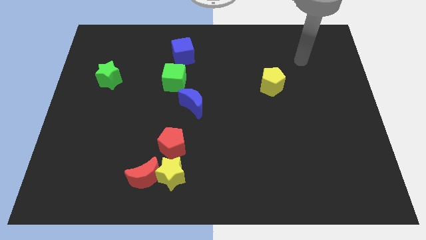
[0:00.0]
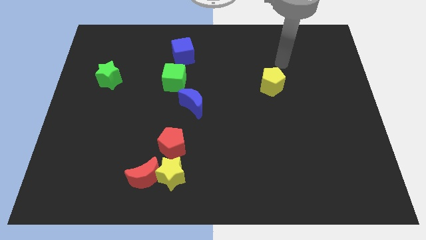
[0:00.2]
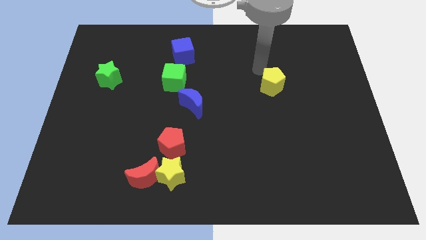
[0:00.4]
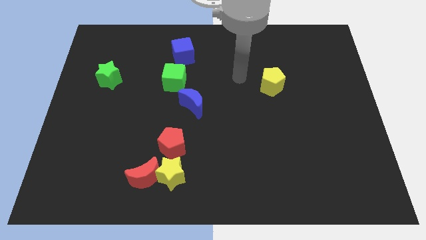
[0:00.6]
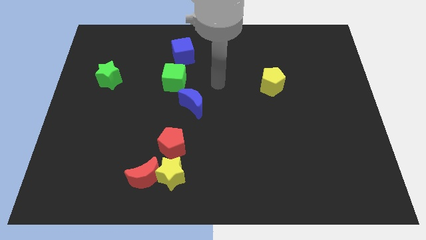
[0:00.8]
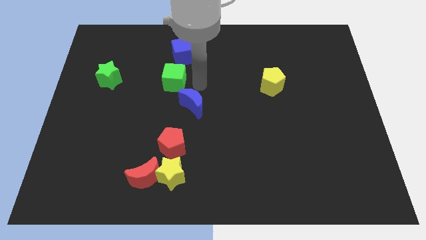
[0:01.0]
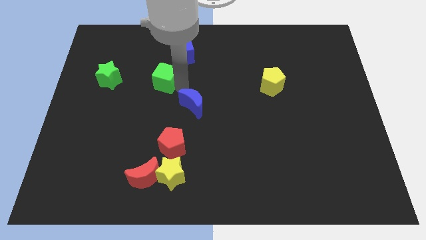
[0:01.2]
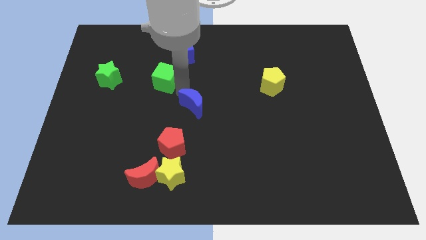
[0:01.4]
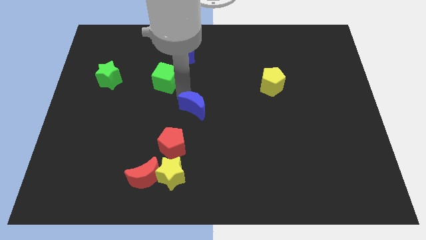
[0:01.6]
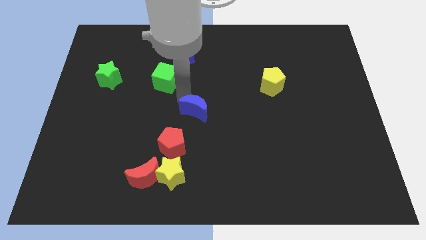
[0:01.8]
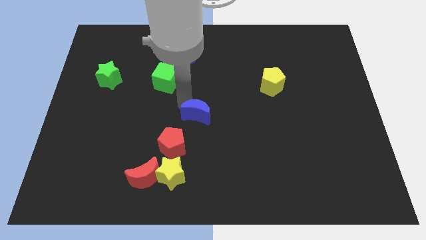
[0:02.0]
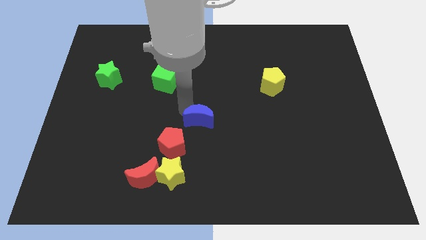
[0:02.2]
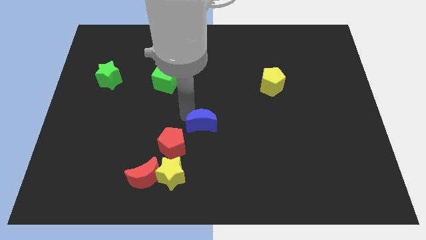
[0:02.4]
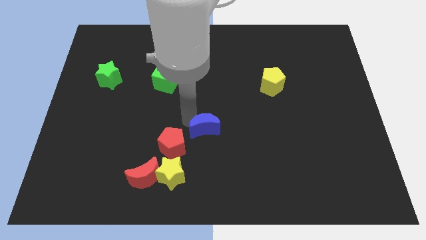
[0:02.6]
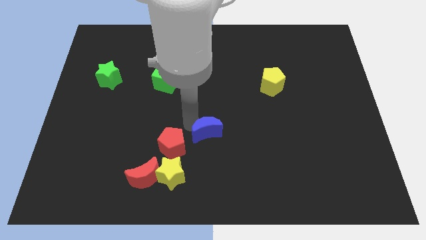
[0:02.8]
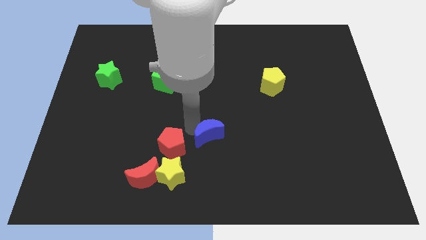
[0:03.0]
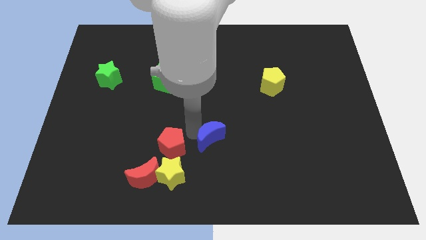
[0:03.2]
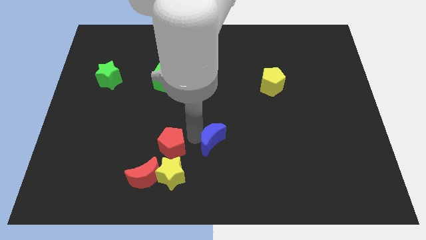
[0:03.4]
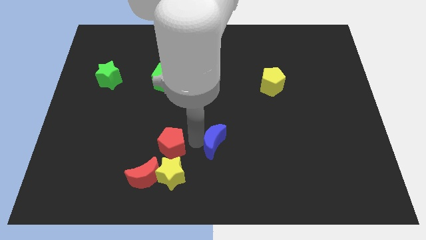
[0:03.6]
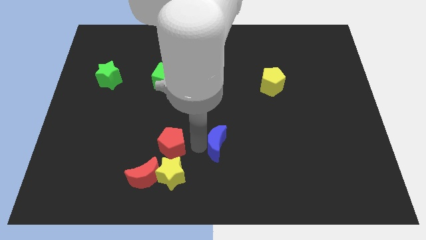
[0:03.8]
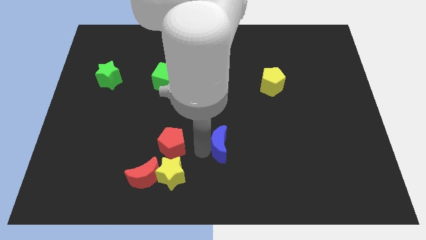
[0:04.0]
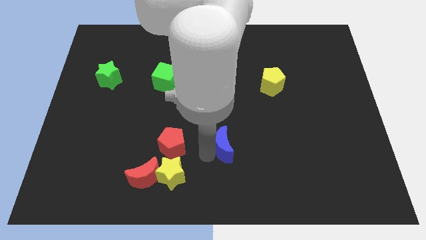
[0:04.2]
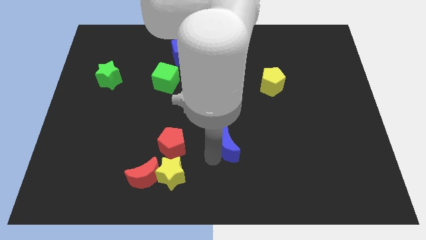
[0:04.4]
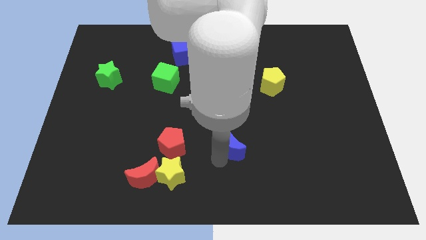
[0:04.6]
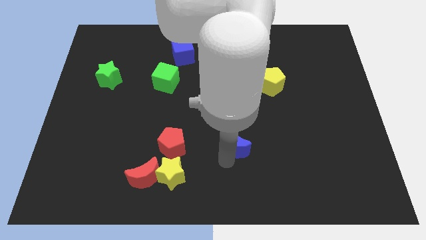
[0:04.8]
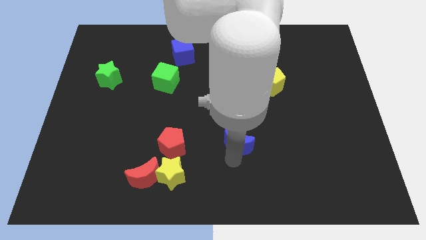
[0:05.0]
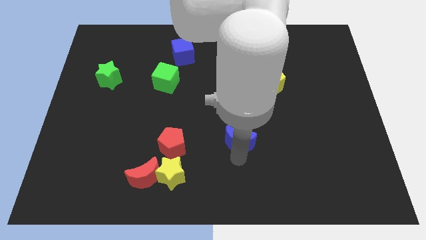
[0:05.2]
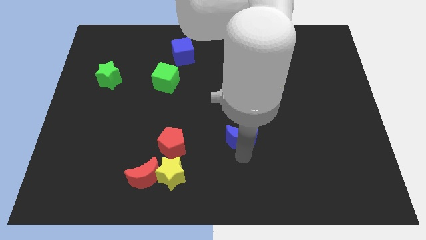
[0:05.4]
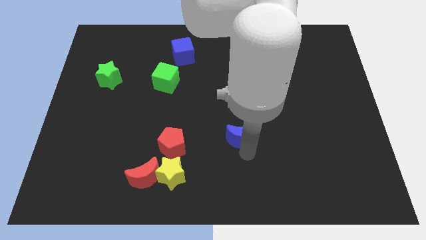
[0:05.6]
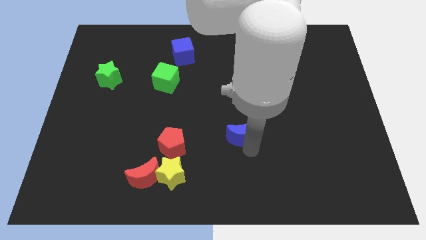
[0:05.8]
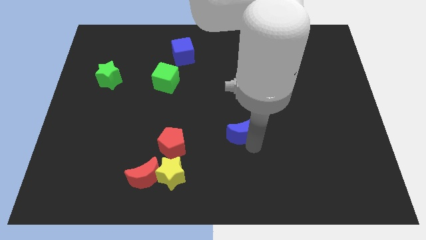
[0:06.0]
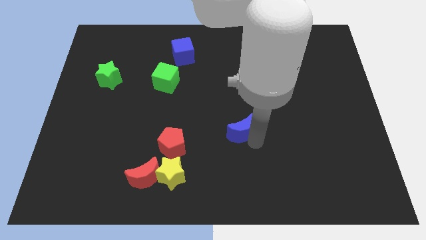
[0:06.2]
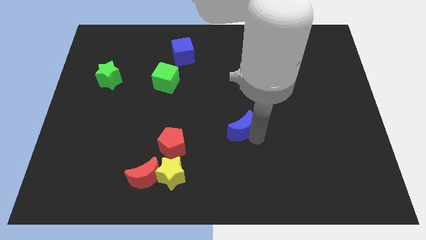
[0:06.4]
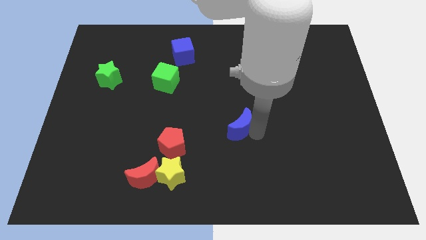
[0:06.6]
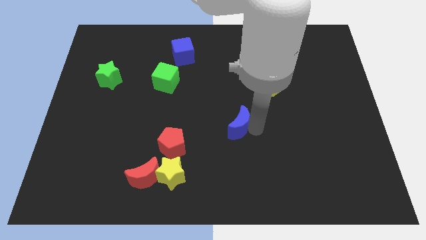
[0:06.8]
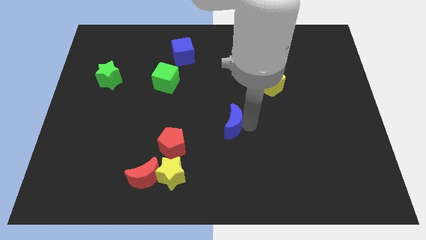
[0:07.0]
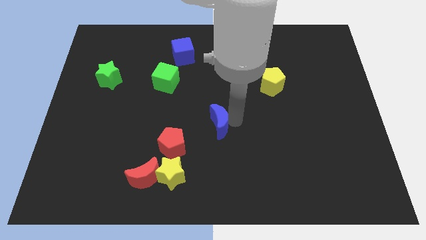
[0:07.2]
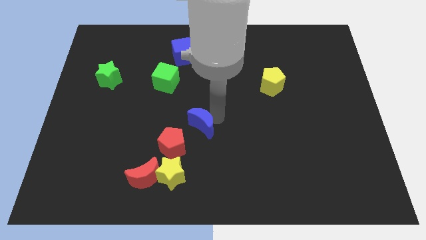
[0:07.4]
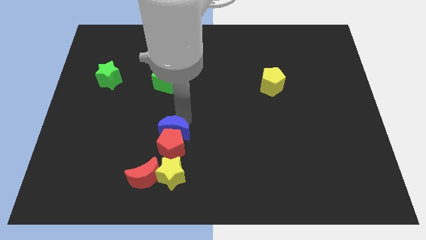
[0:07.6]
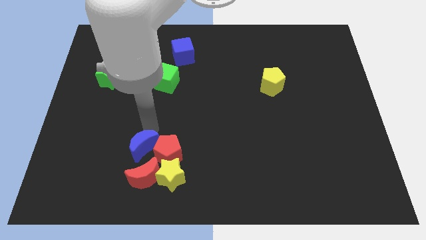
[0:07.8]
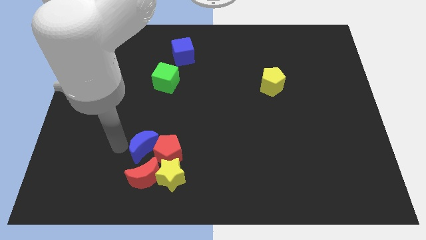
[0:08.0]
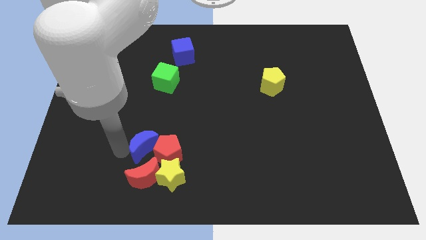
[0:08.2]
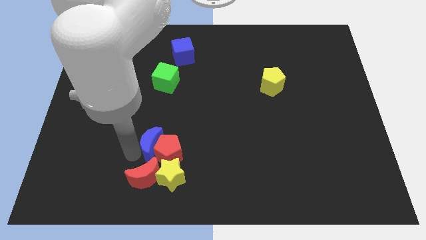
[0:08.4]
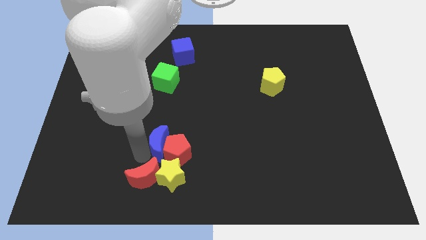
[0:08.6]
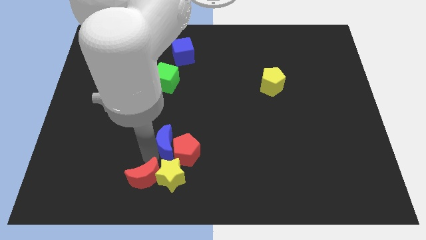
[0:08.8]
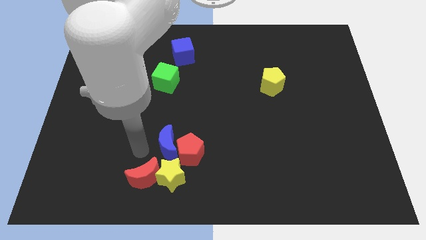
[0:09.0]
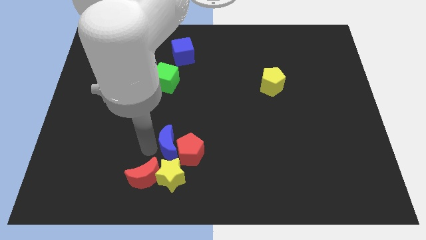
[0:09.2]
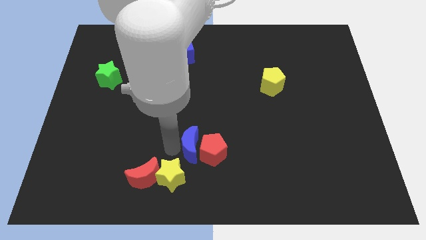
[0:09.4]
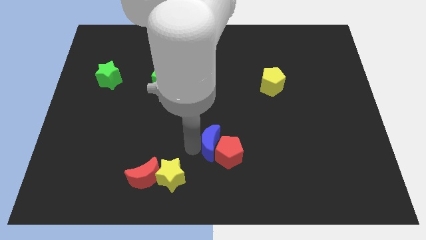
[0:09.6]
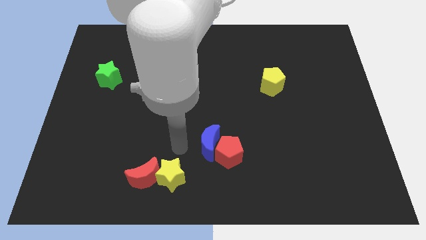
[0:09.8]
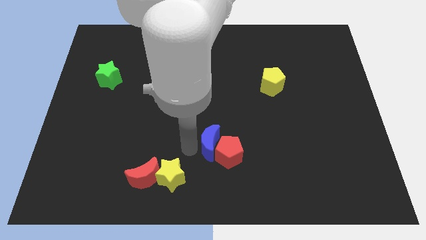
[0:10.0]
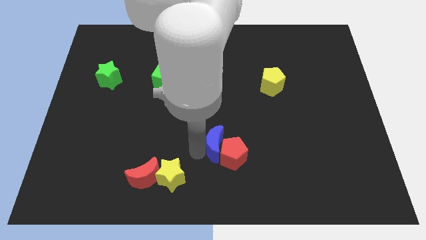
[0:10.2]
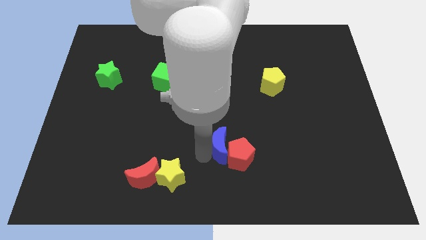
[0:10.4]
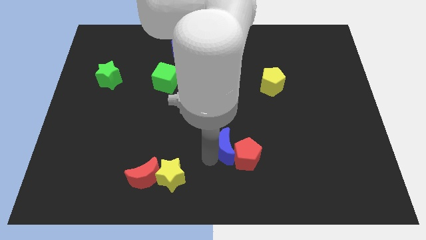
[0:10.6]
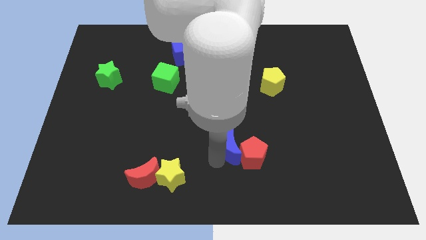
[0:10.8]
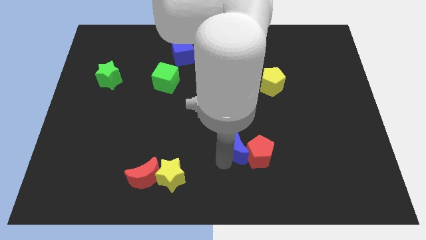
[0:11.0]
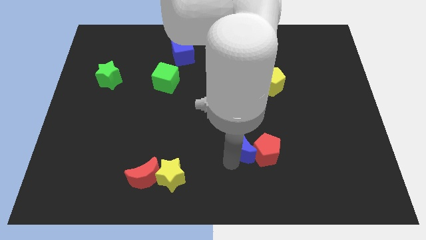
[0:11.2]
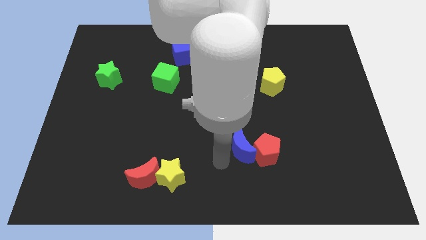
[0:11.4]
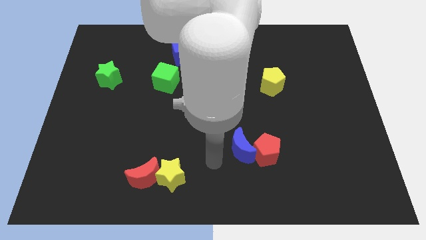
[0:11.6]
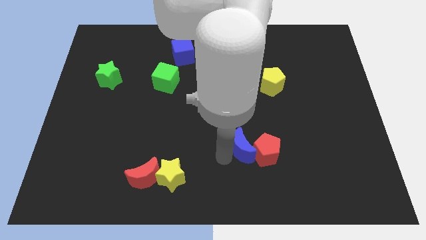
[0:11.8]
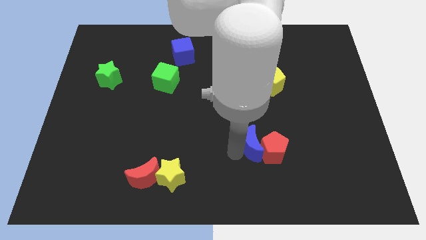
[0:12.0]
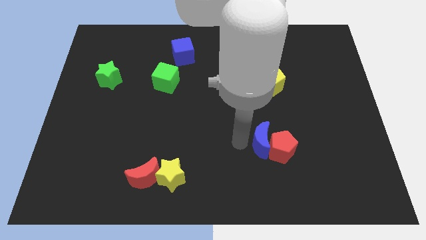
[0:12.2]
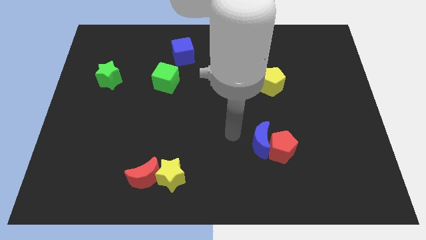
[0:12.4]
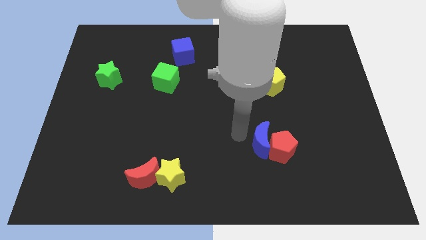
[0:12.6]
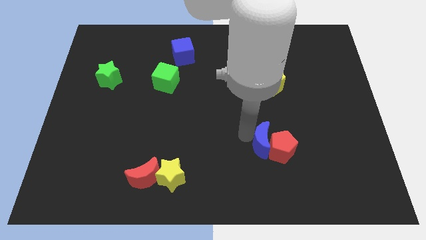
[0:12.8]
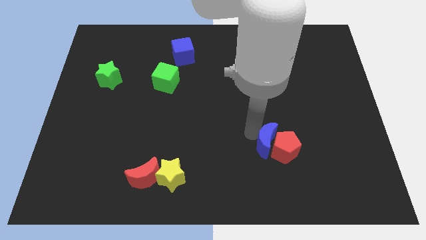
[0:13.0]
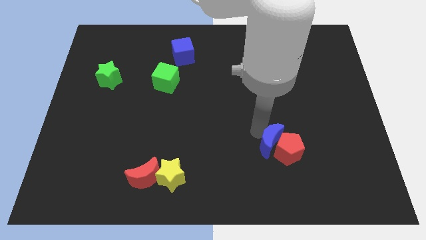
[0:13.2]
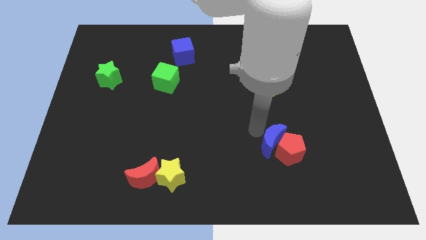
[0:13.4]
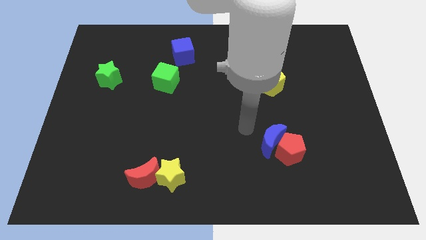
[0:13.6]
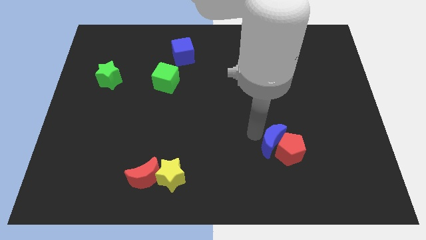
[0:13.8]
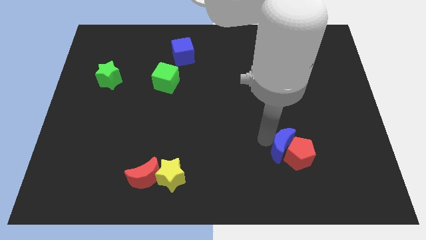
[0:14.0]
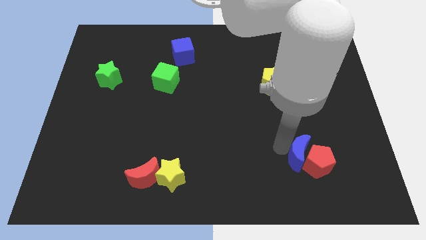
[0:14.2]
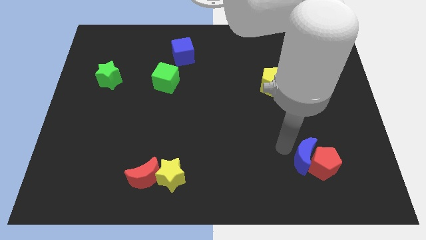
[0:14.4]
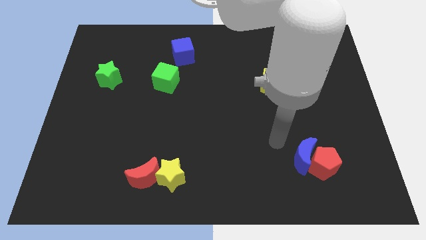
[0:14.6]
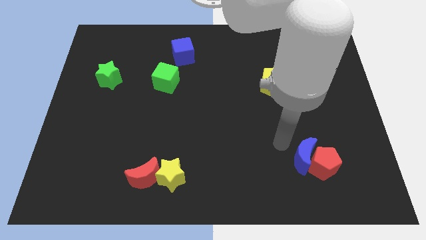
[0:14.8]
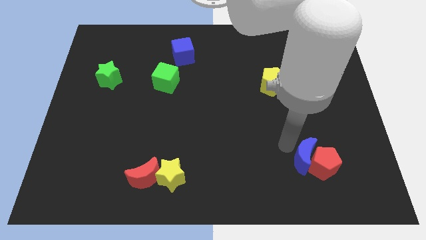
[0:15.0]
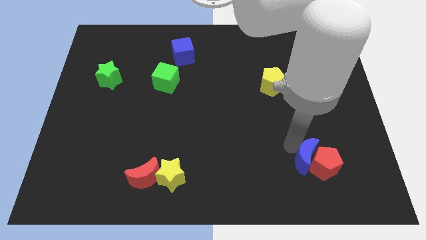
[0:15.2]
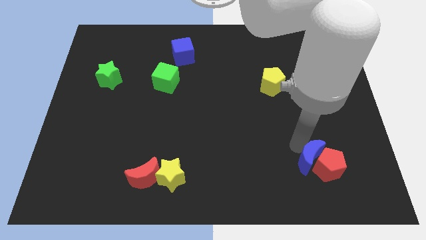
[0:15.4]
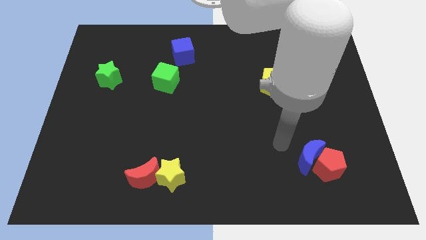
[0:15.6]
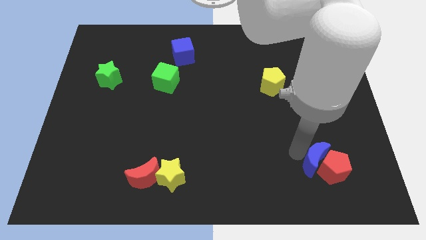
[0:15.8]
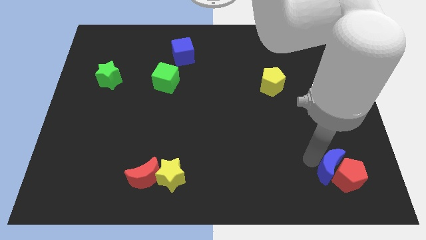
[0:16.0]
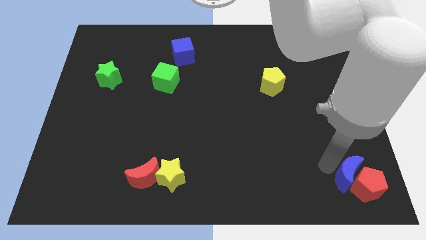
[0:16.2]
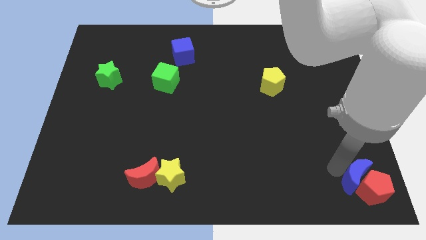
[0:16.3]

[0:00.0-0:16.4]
move the blue moon to the bottom right corner
